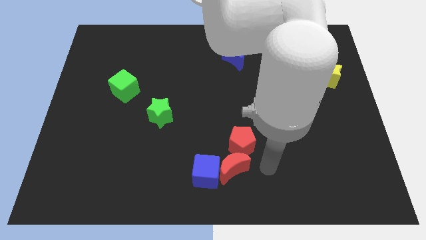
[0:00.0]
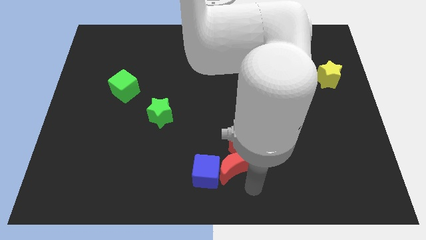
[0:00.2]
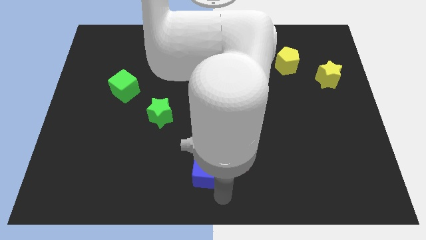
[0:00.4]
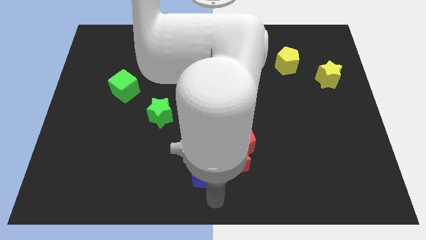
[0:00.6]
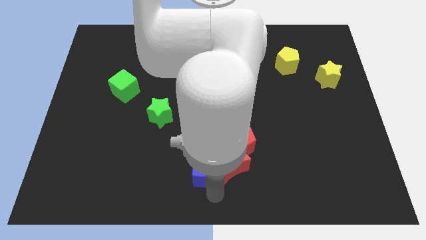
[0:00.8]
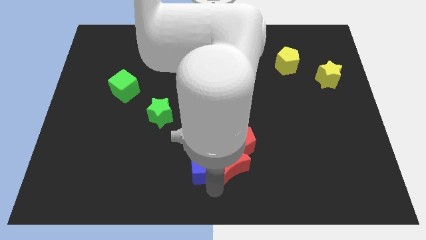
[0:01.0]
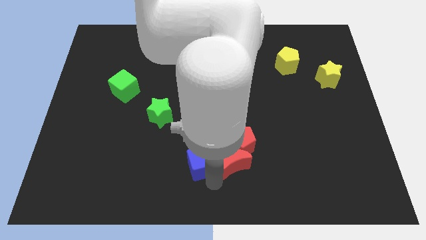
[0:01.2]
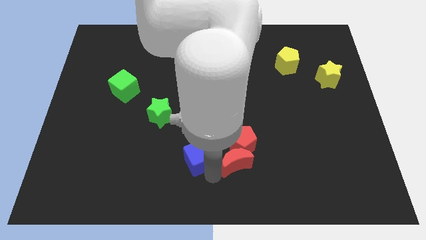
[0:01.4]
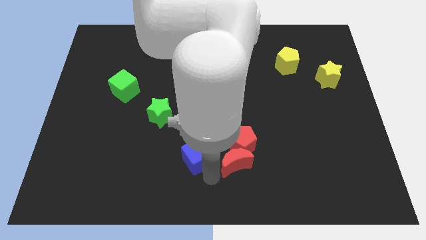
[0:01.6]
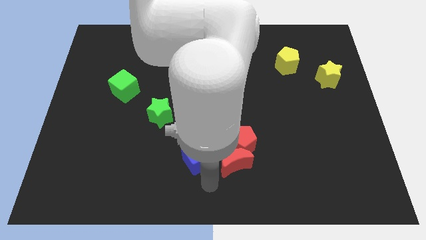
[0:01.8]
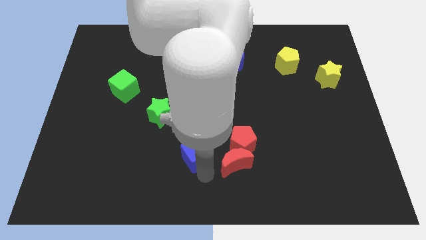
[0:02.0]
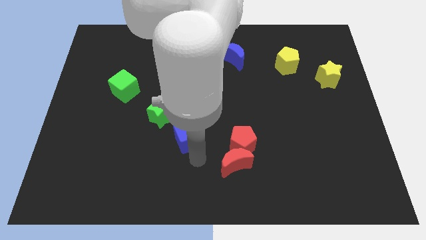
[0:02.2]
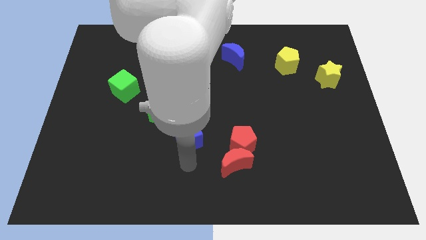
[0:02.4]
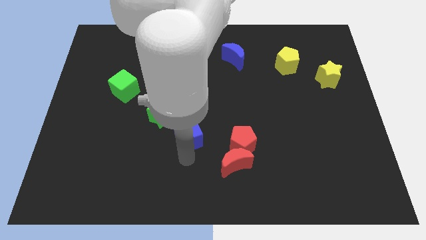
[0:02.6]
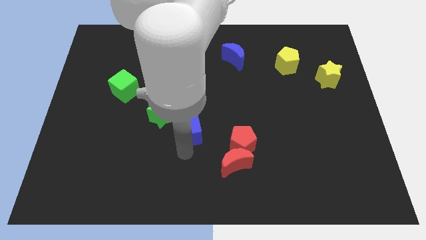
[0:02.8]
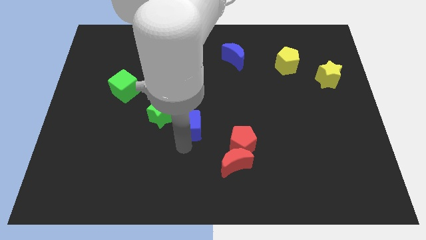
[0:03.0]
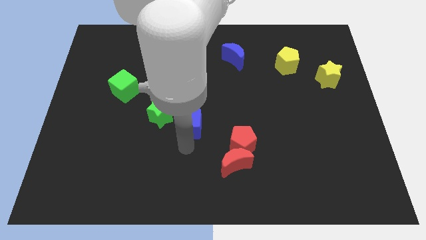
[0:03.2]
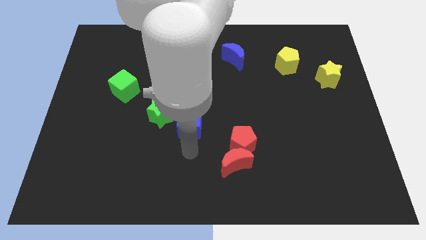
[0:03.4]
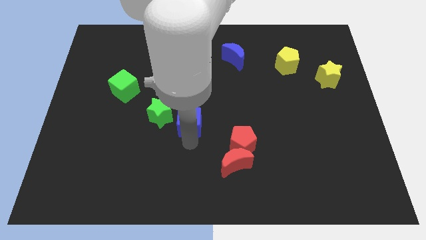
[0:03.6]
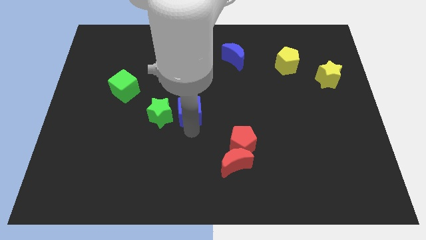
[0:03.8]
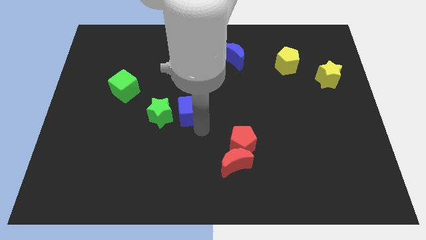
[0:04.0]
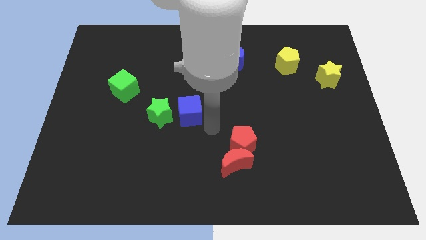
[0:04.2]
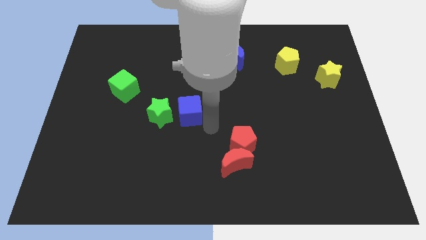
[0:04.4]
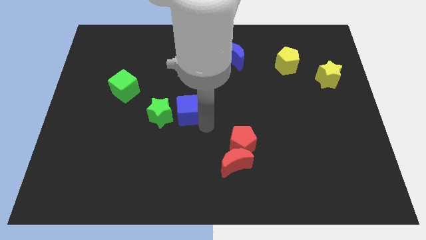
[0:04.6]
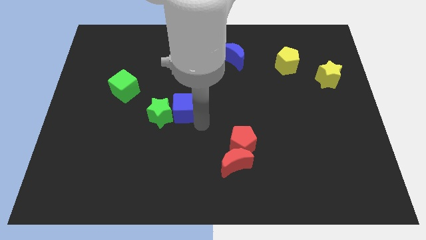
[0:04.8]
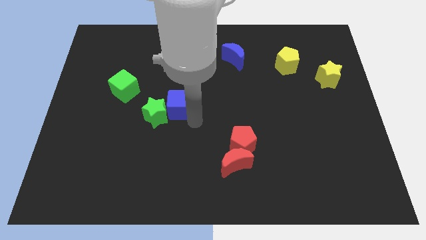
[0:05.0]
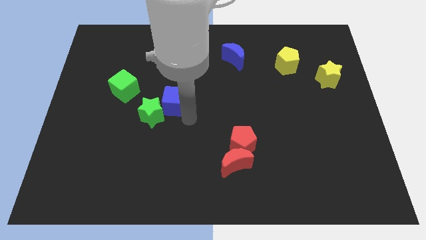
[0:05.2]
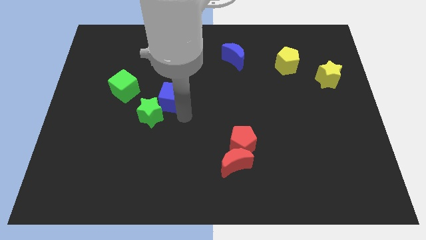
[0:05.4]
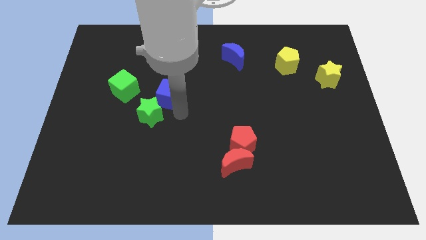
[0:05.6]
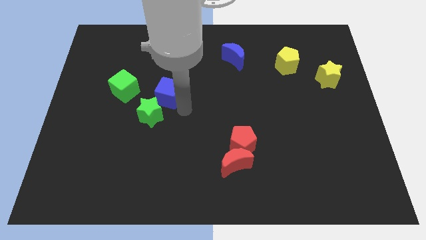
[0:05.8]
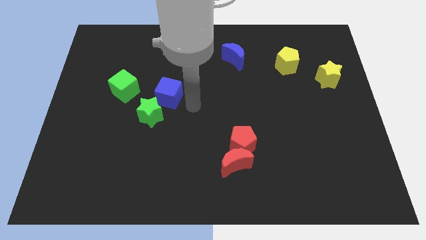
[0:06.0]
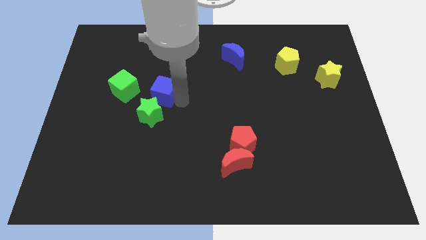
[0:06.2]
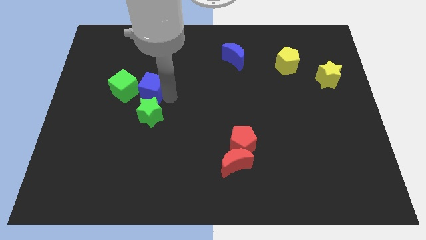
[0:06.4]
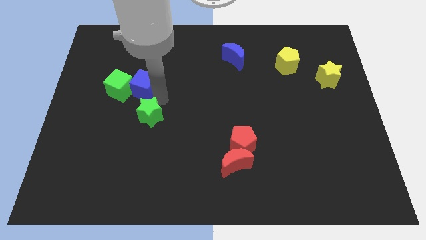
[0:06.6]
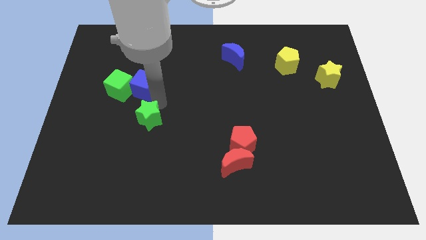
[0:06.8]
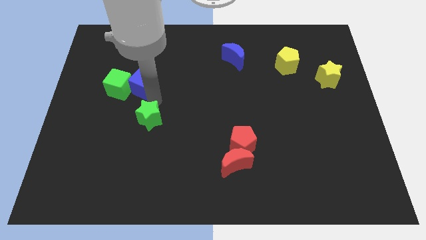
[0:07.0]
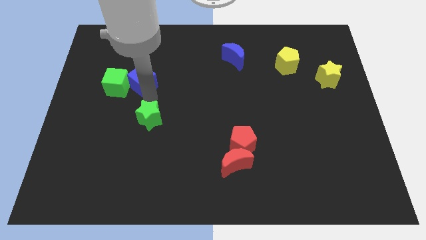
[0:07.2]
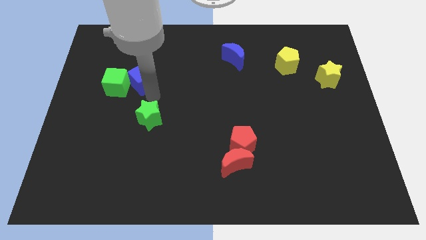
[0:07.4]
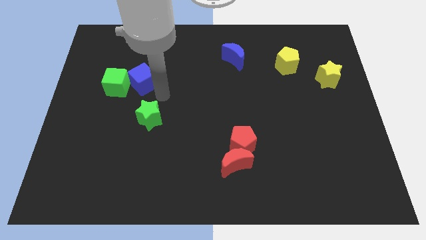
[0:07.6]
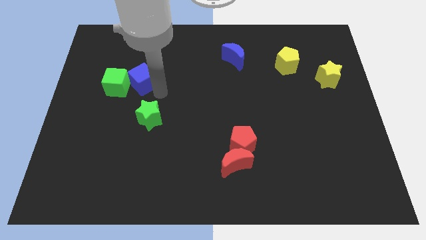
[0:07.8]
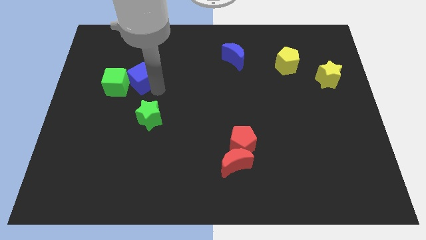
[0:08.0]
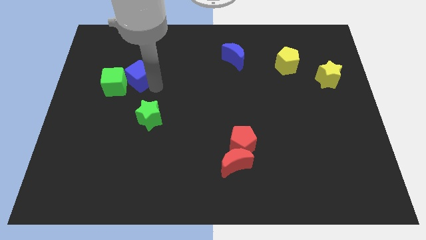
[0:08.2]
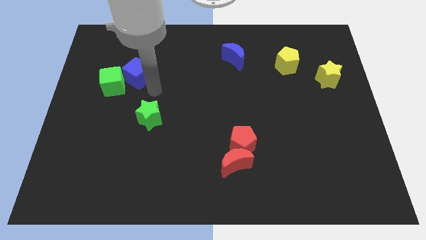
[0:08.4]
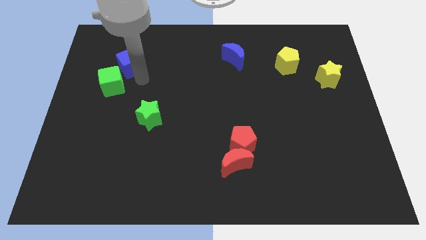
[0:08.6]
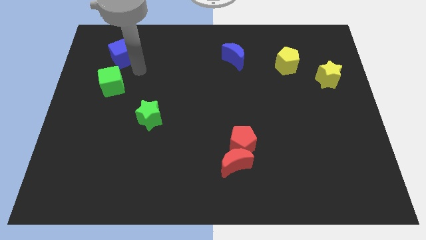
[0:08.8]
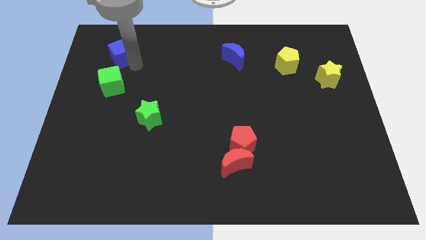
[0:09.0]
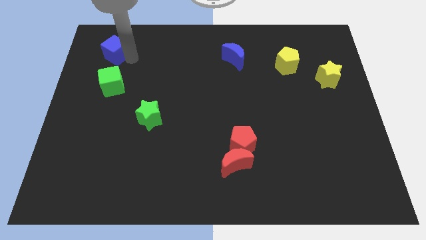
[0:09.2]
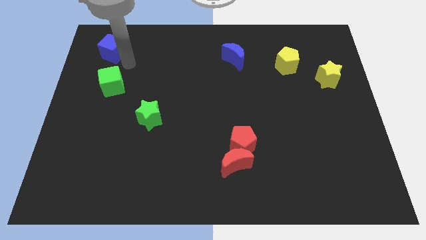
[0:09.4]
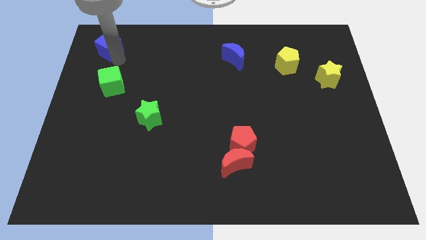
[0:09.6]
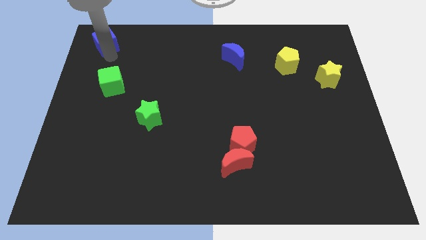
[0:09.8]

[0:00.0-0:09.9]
push the blue cube to the top left

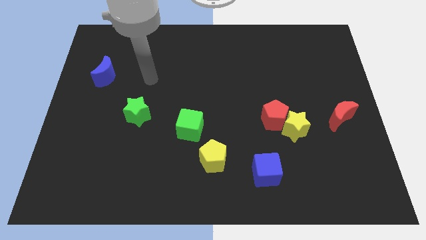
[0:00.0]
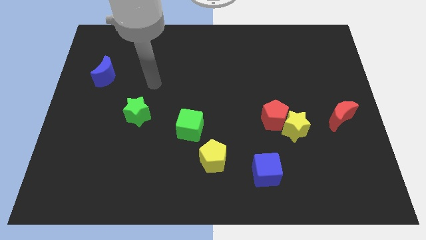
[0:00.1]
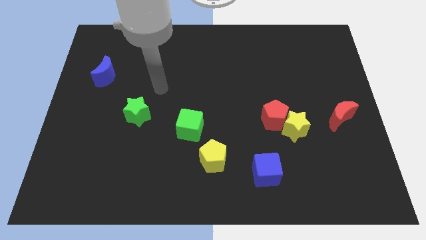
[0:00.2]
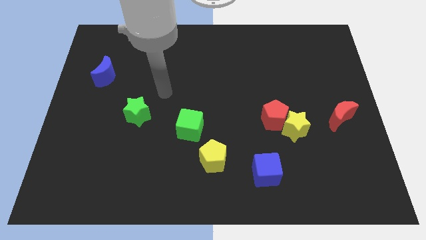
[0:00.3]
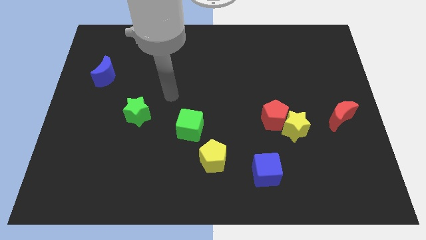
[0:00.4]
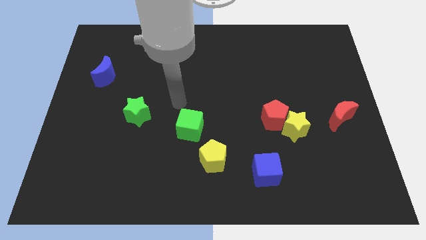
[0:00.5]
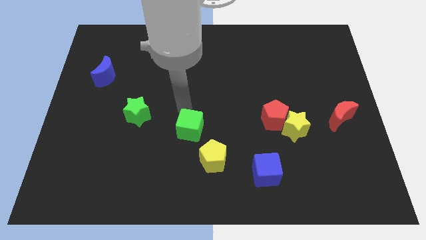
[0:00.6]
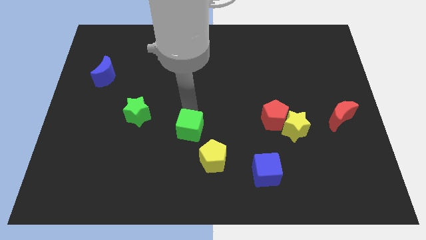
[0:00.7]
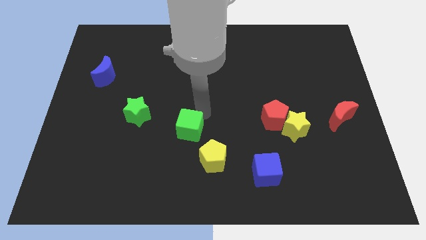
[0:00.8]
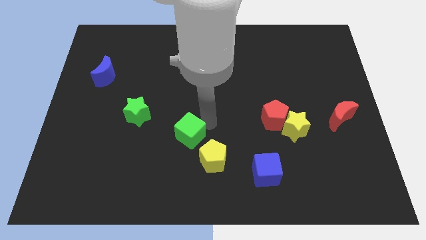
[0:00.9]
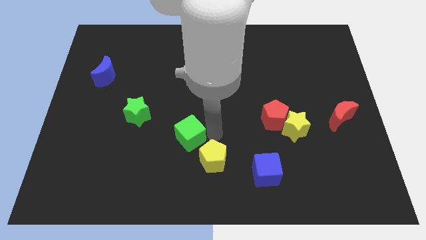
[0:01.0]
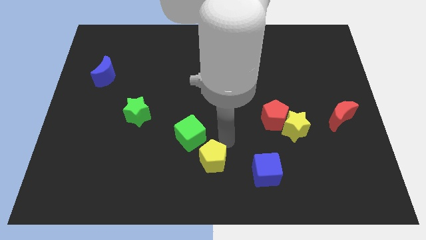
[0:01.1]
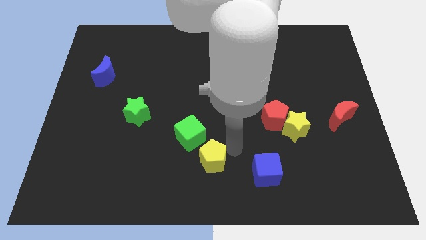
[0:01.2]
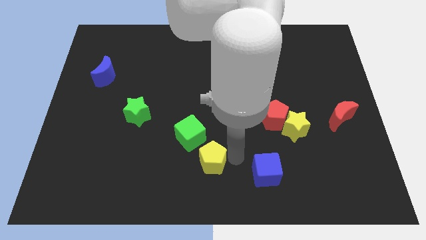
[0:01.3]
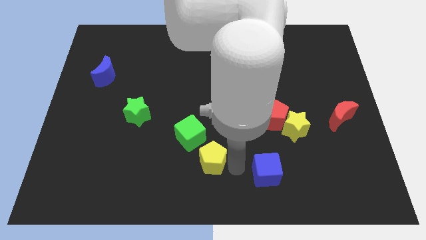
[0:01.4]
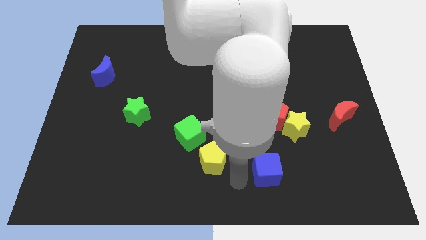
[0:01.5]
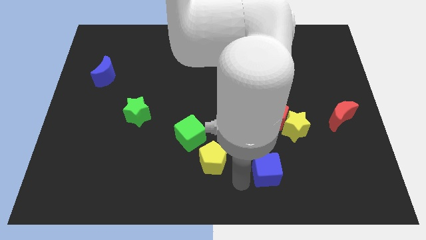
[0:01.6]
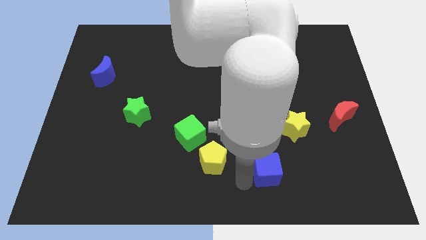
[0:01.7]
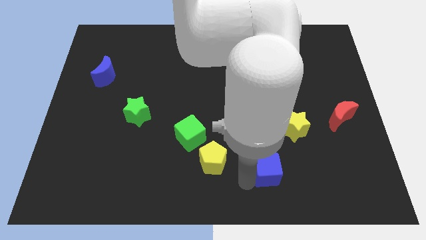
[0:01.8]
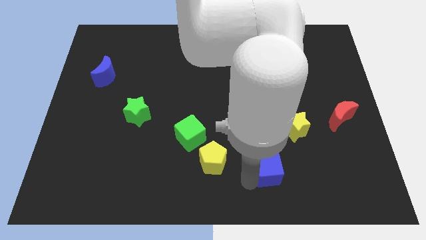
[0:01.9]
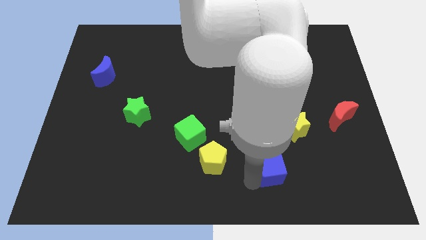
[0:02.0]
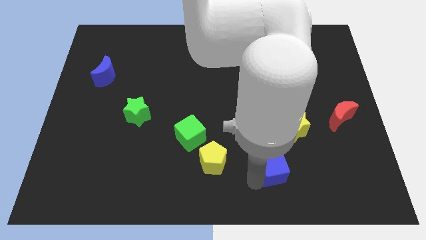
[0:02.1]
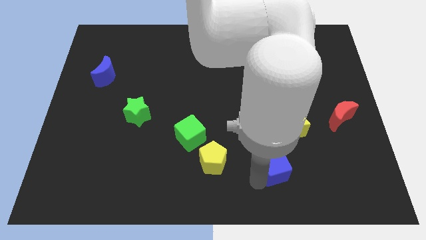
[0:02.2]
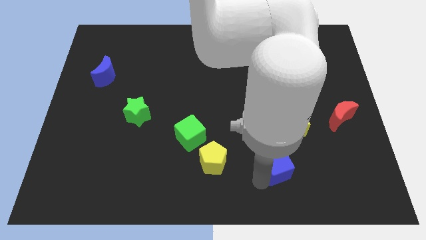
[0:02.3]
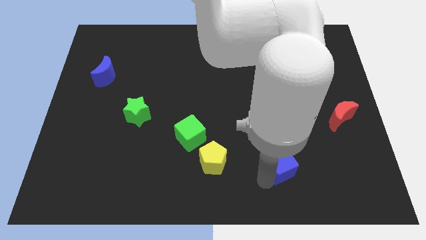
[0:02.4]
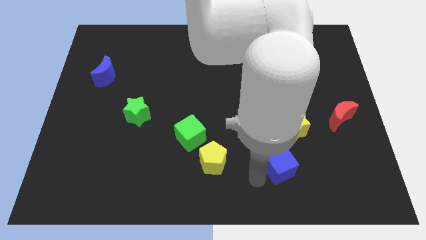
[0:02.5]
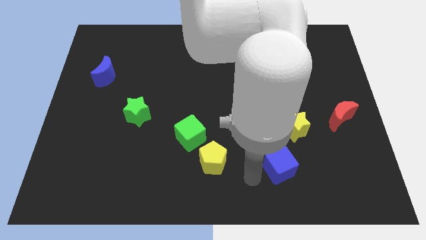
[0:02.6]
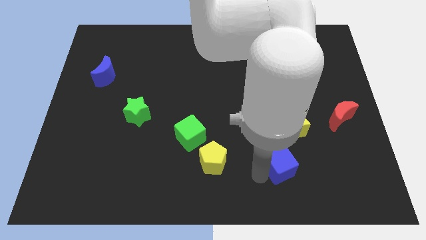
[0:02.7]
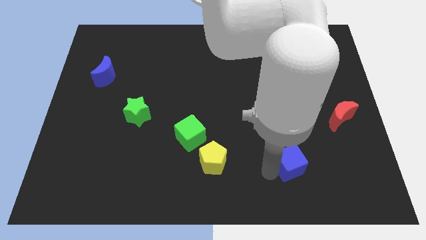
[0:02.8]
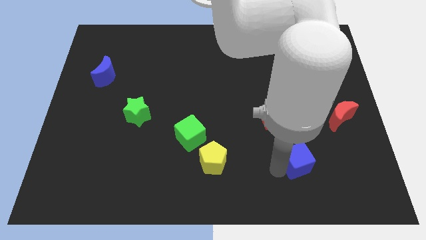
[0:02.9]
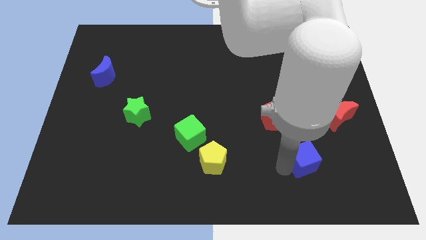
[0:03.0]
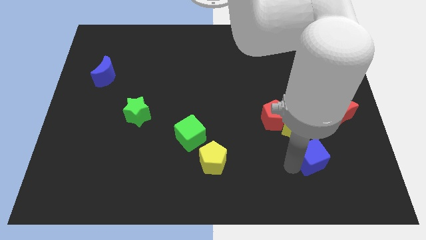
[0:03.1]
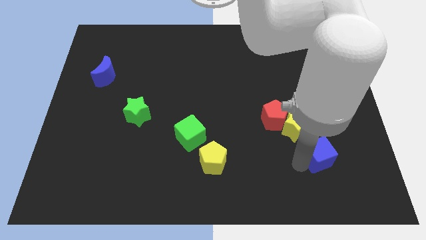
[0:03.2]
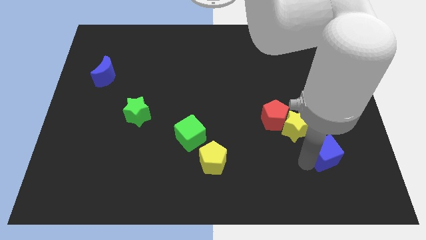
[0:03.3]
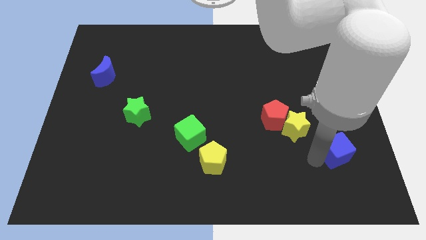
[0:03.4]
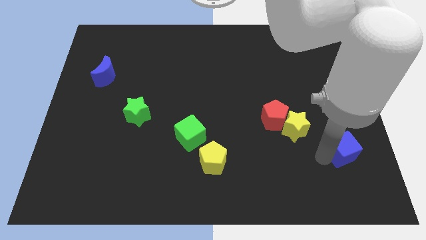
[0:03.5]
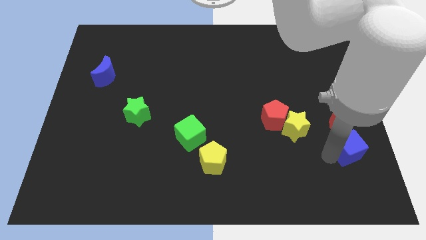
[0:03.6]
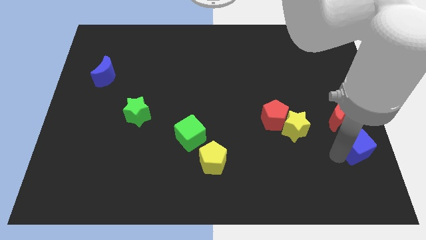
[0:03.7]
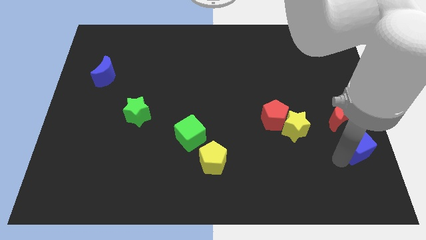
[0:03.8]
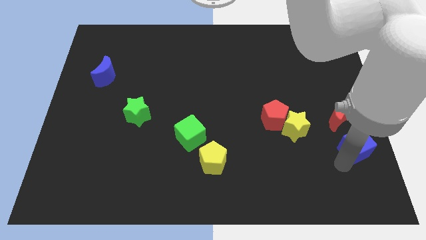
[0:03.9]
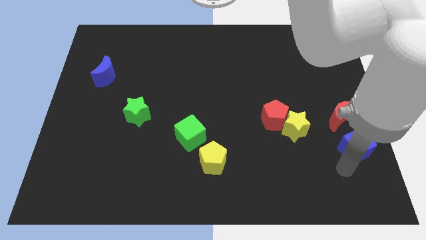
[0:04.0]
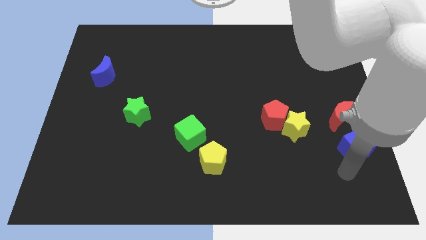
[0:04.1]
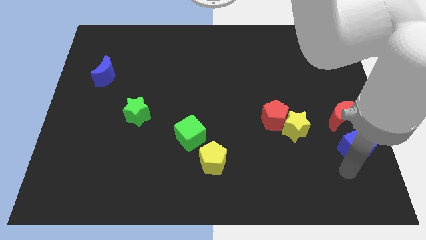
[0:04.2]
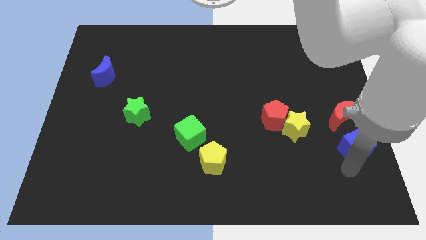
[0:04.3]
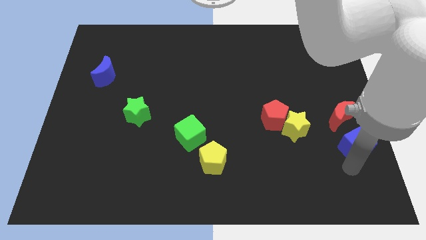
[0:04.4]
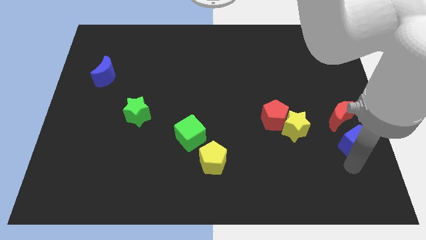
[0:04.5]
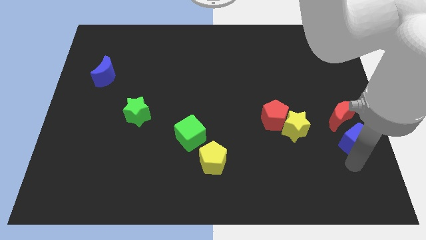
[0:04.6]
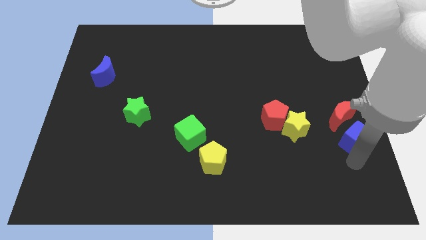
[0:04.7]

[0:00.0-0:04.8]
push the blue cube to the center right
